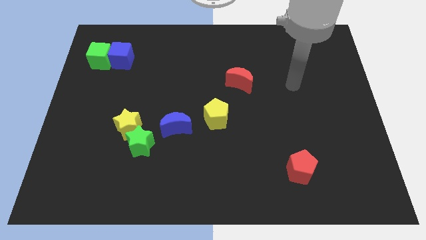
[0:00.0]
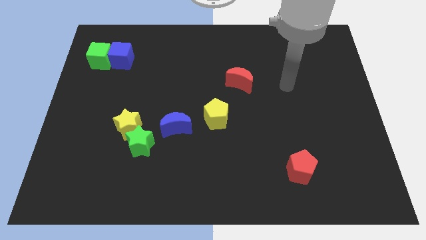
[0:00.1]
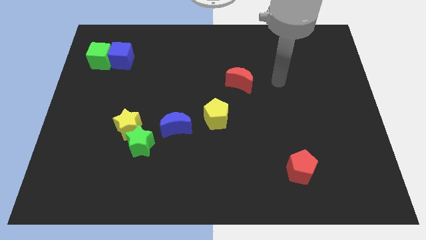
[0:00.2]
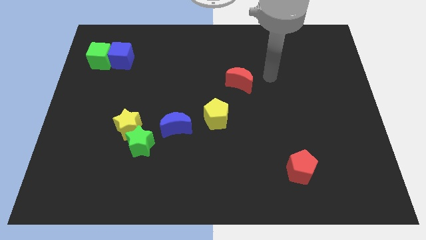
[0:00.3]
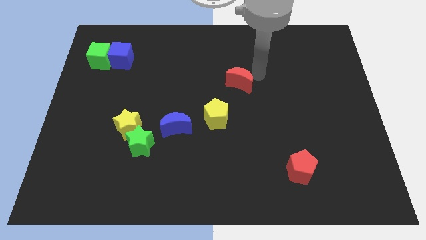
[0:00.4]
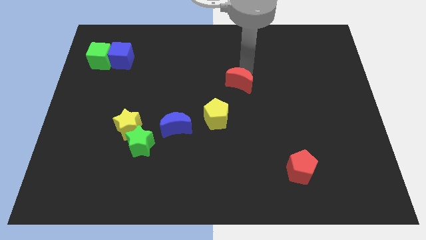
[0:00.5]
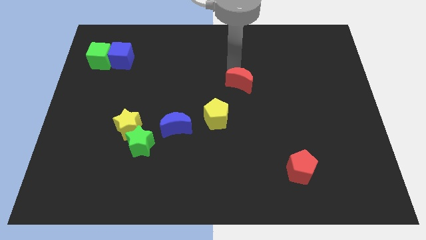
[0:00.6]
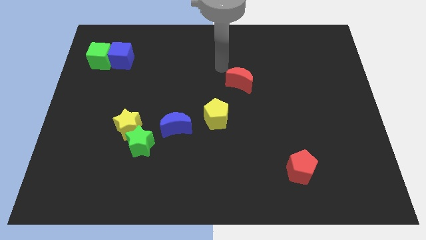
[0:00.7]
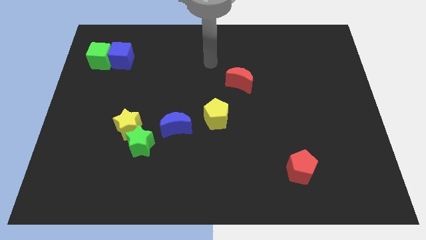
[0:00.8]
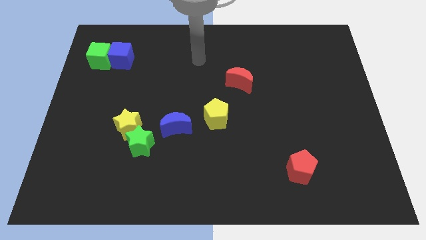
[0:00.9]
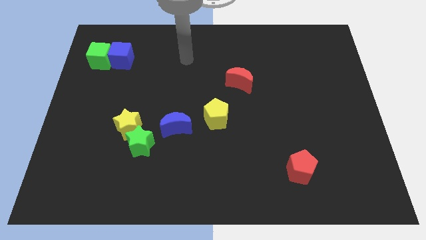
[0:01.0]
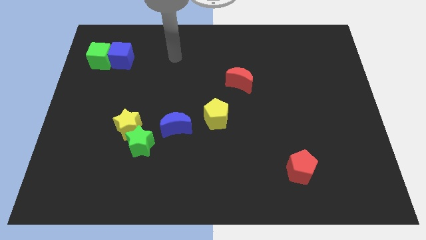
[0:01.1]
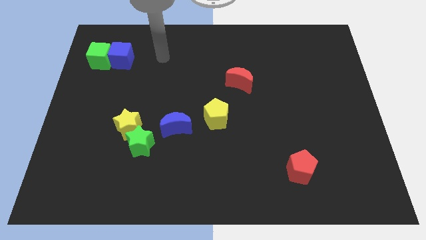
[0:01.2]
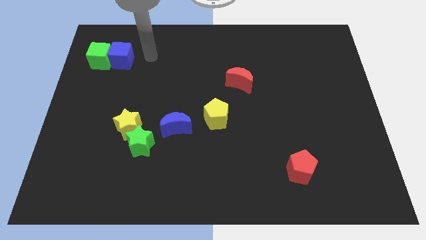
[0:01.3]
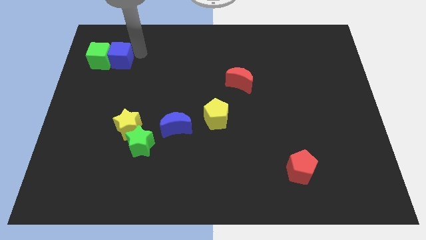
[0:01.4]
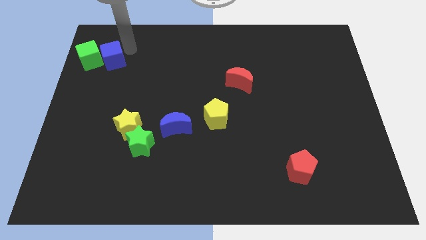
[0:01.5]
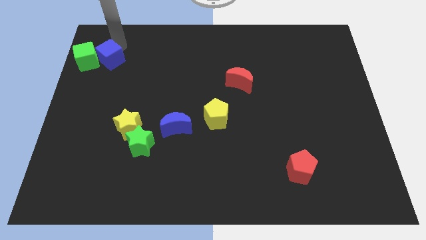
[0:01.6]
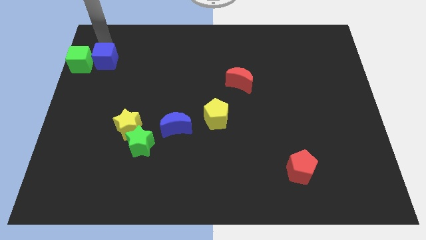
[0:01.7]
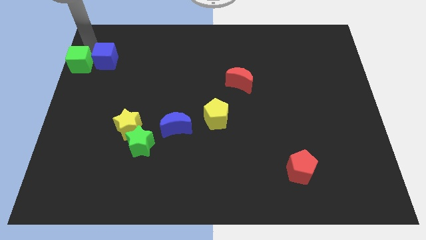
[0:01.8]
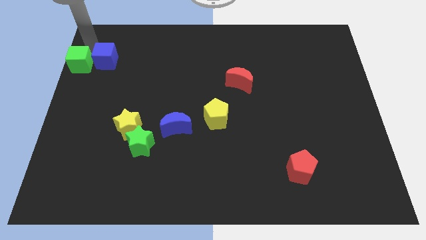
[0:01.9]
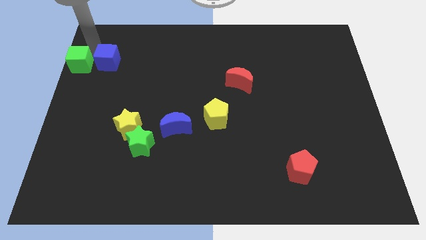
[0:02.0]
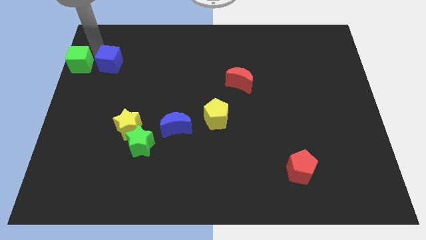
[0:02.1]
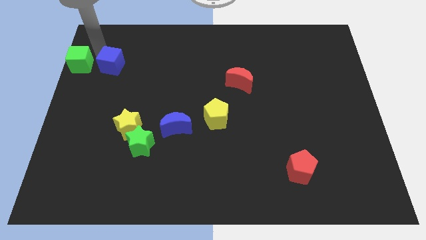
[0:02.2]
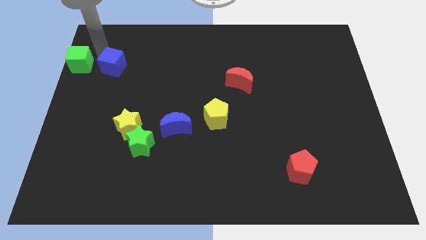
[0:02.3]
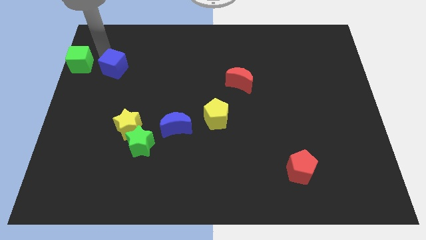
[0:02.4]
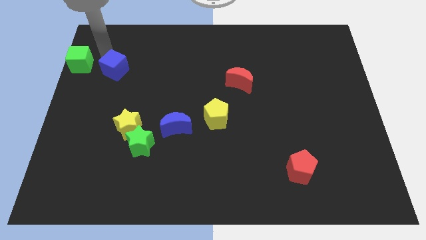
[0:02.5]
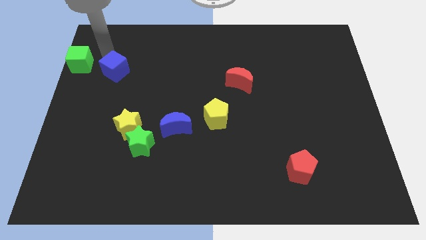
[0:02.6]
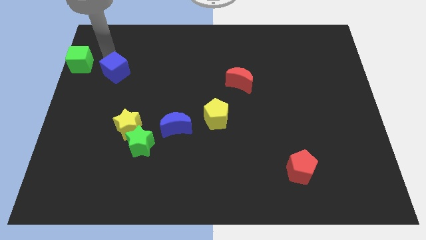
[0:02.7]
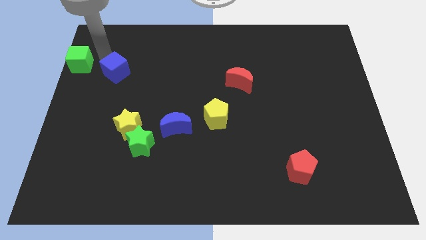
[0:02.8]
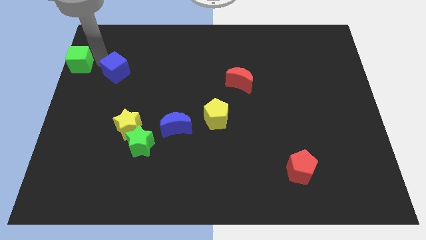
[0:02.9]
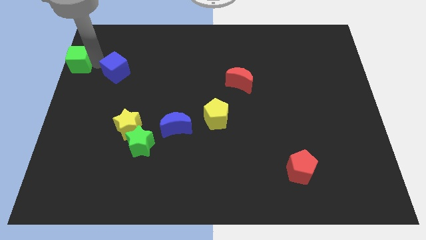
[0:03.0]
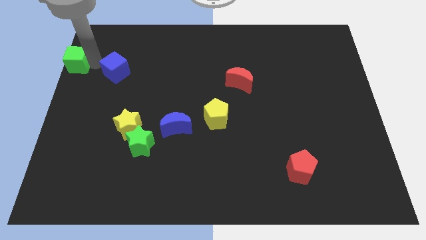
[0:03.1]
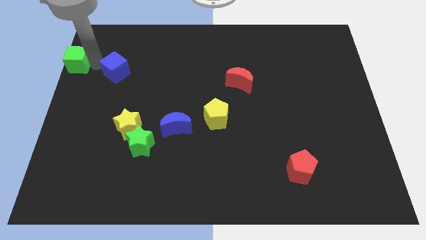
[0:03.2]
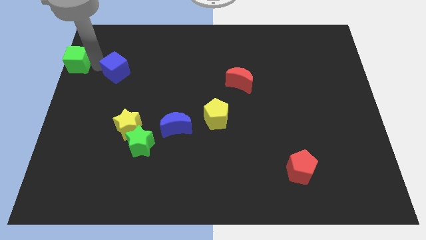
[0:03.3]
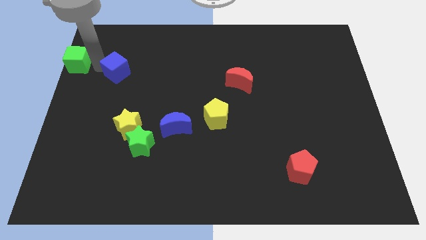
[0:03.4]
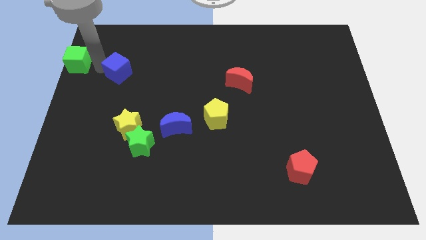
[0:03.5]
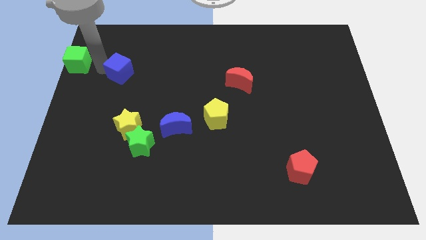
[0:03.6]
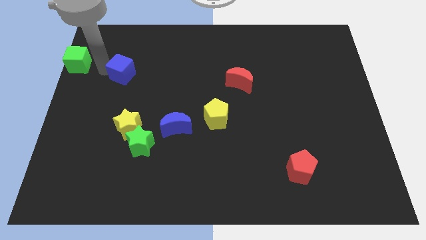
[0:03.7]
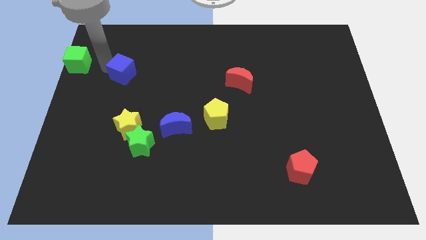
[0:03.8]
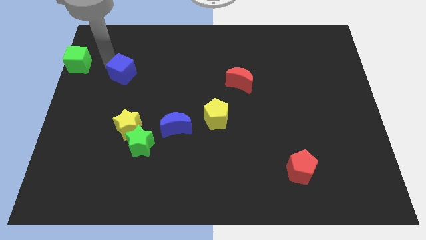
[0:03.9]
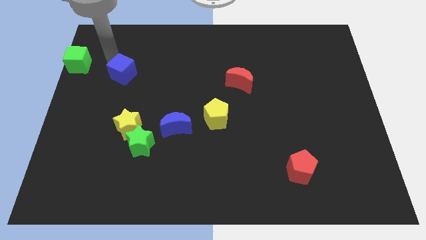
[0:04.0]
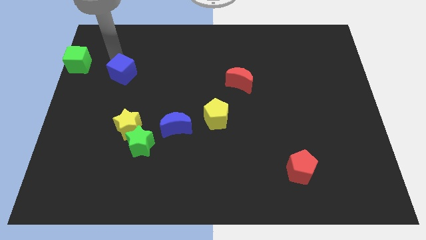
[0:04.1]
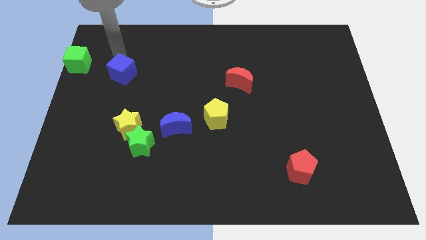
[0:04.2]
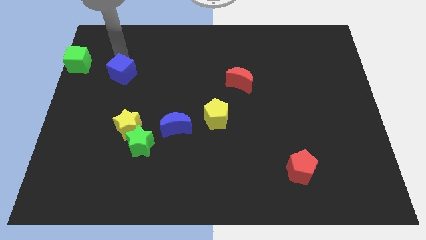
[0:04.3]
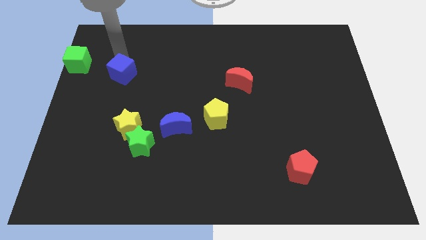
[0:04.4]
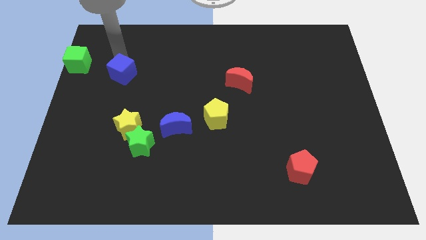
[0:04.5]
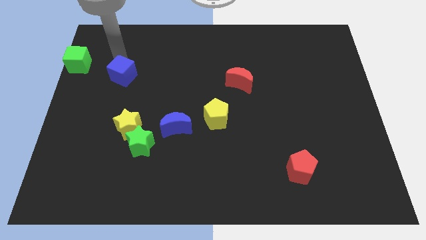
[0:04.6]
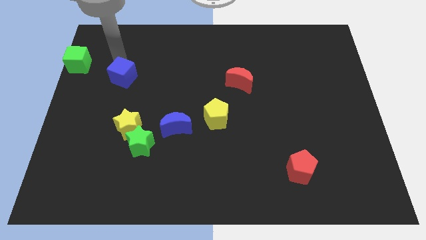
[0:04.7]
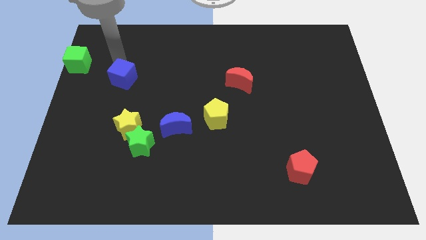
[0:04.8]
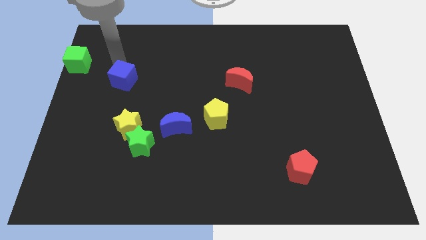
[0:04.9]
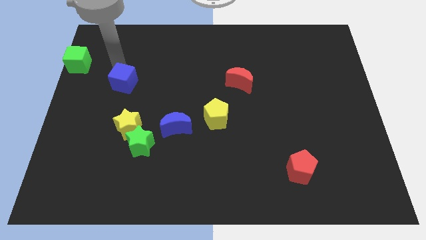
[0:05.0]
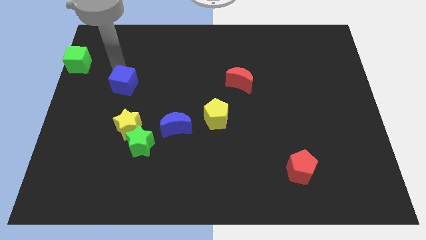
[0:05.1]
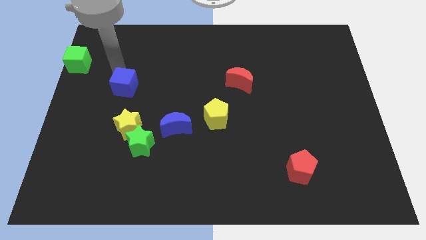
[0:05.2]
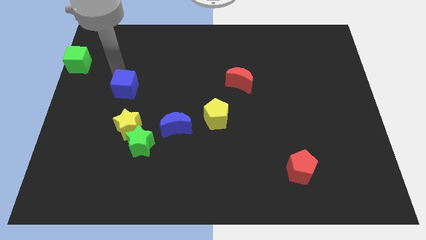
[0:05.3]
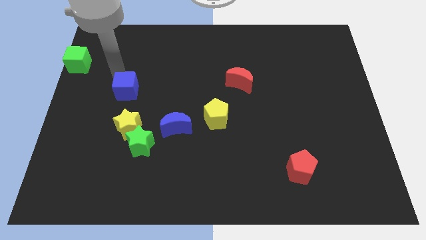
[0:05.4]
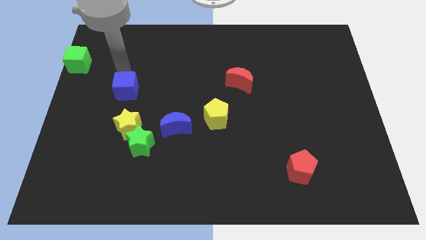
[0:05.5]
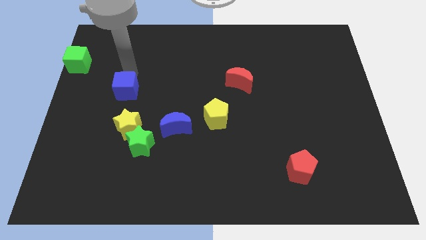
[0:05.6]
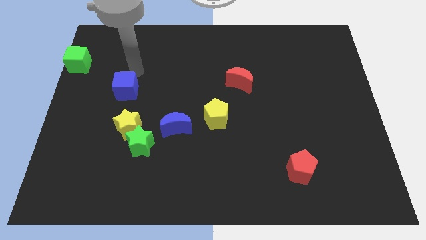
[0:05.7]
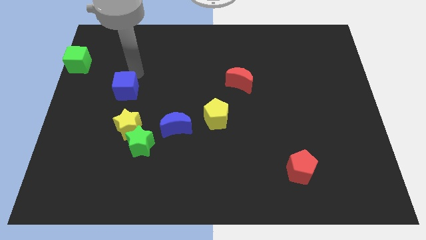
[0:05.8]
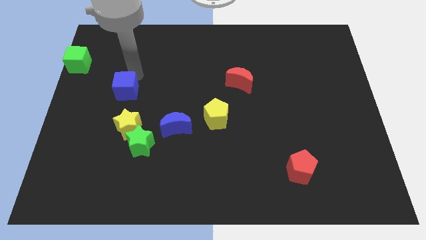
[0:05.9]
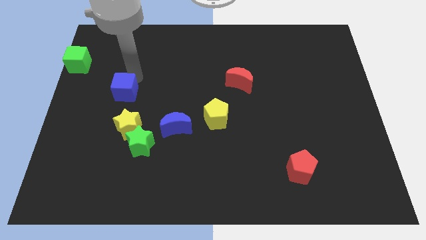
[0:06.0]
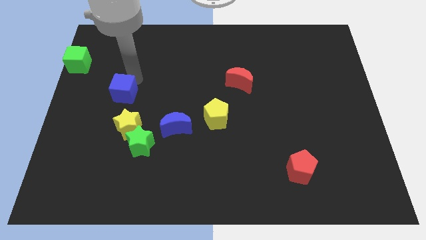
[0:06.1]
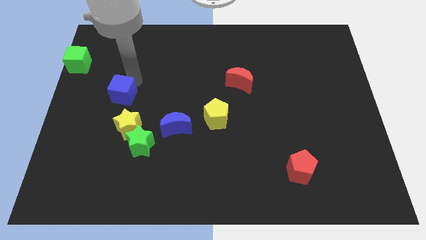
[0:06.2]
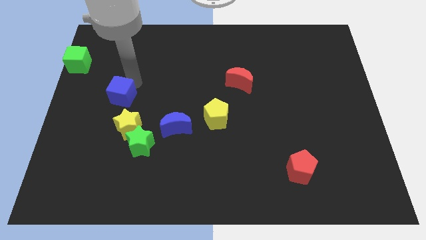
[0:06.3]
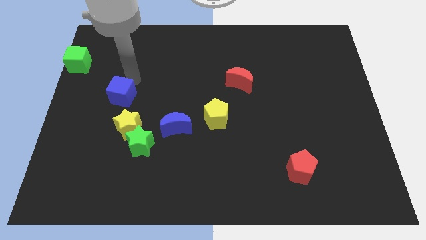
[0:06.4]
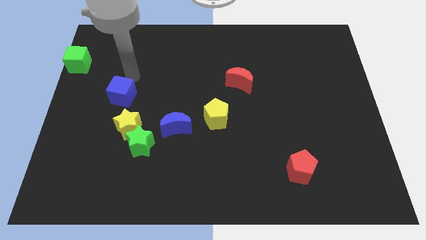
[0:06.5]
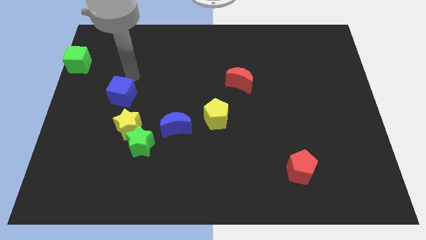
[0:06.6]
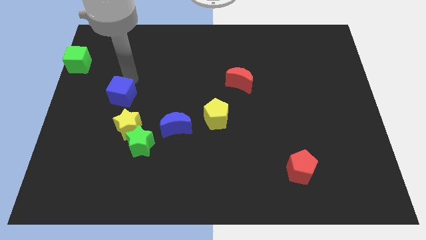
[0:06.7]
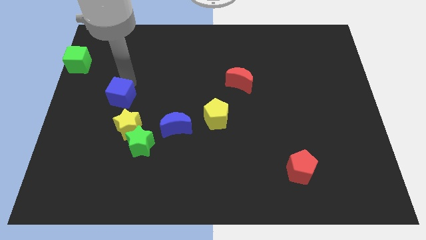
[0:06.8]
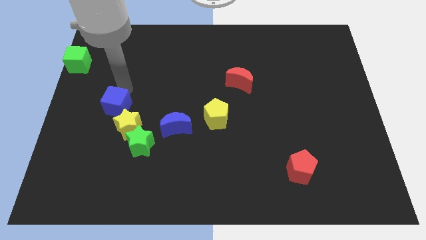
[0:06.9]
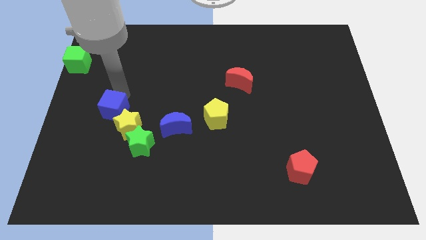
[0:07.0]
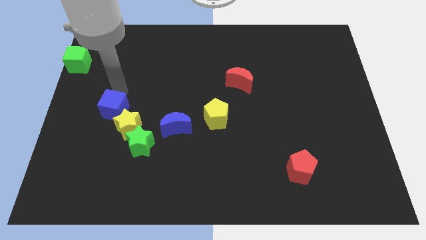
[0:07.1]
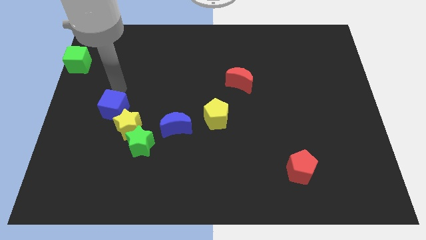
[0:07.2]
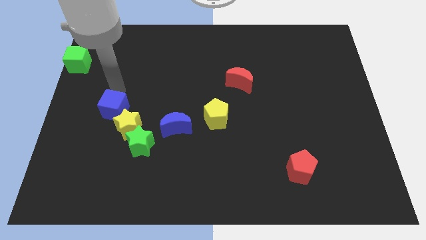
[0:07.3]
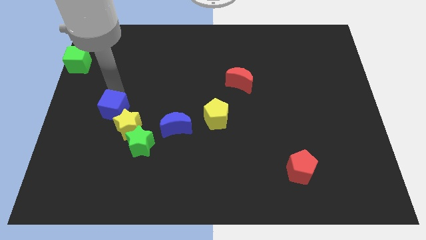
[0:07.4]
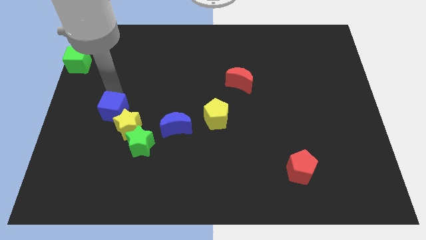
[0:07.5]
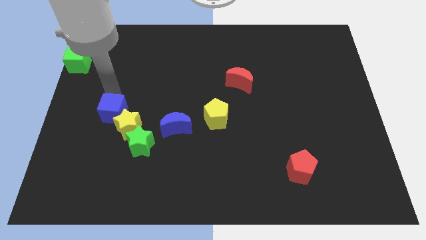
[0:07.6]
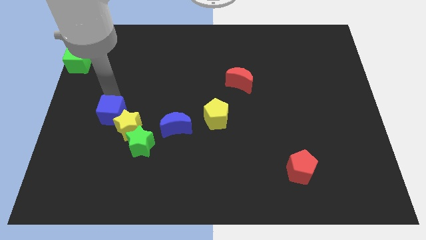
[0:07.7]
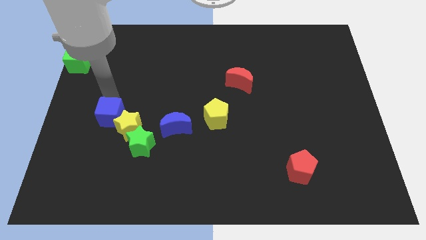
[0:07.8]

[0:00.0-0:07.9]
push the blue cube just left of the blue moon
